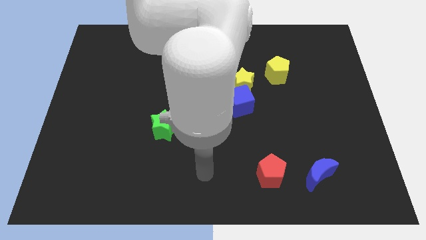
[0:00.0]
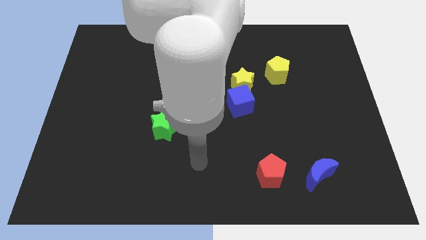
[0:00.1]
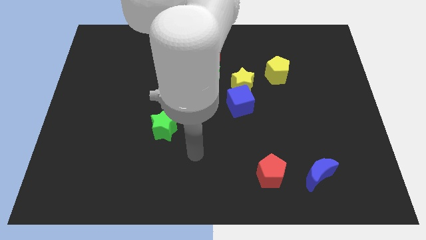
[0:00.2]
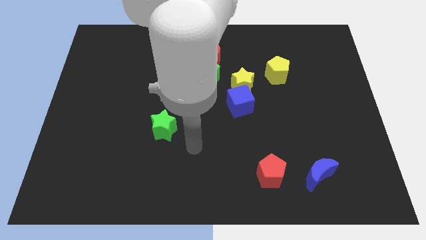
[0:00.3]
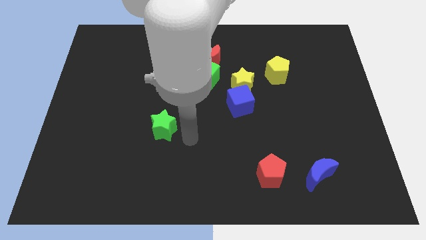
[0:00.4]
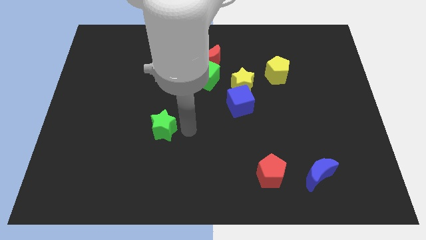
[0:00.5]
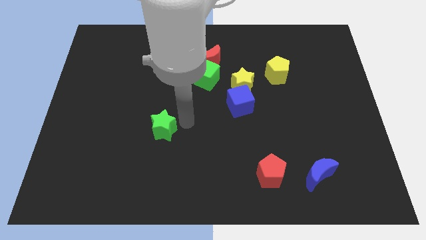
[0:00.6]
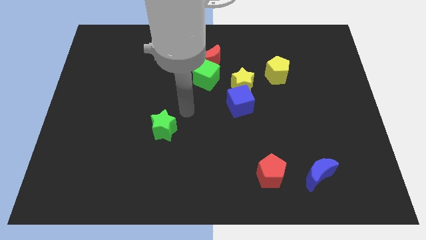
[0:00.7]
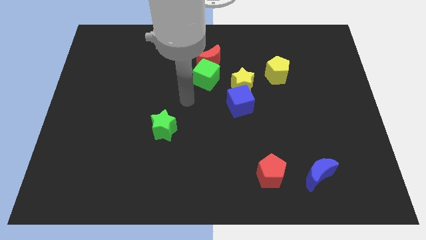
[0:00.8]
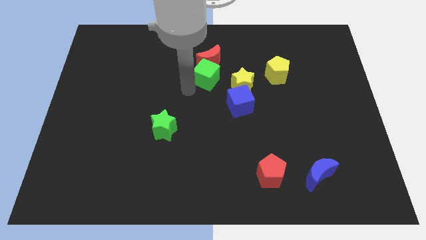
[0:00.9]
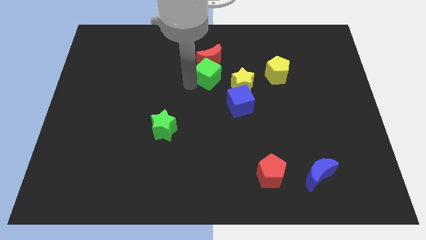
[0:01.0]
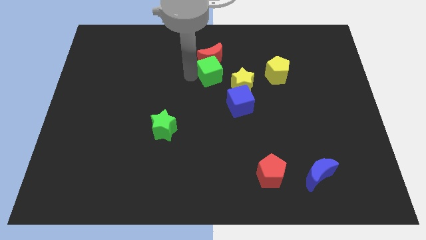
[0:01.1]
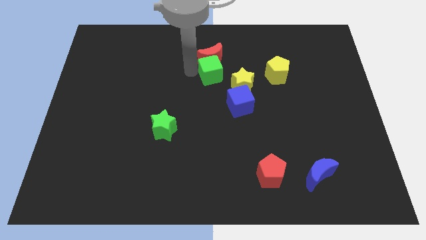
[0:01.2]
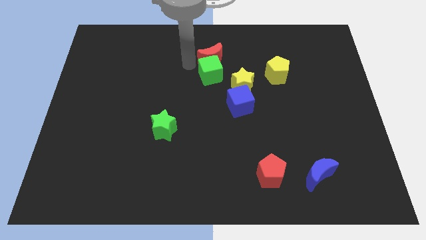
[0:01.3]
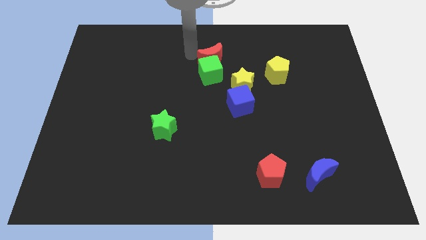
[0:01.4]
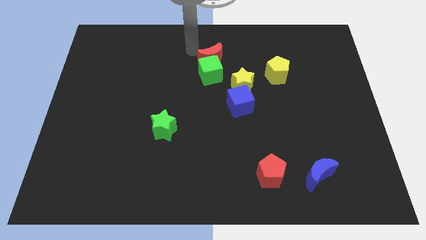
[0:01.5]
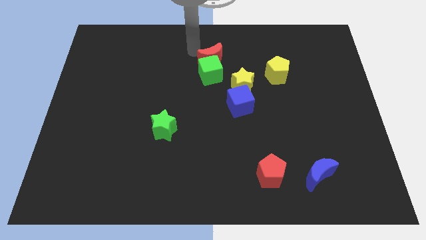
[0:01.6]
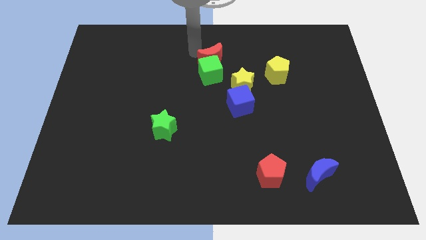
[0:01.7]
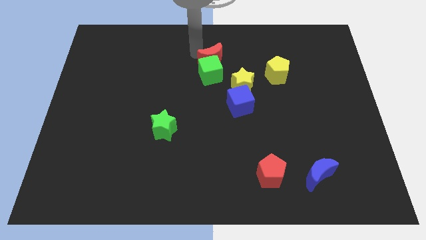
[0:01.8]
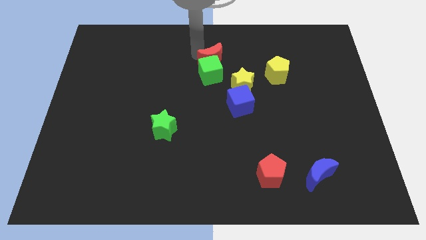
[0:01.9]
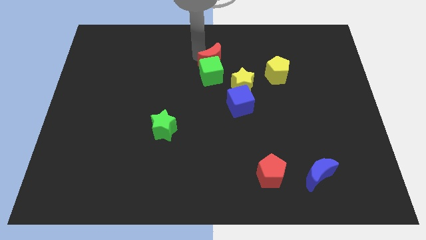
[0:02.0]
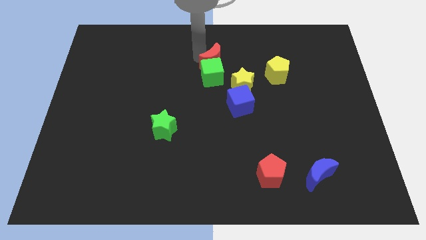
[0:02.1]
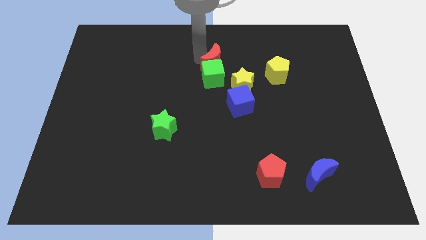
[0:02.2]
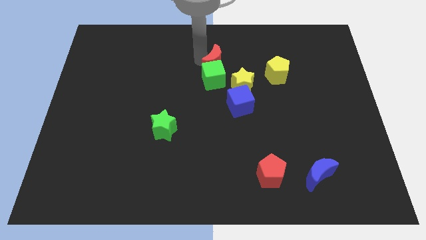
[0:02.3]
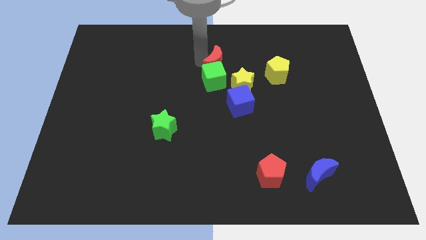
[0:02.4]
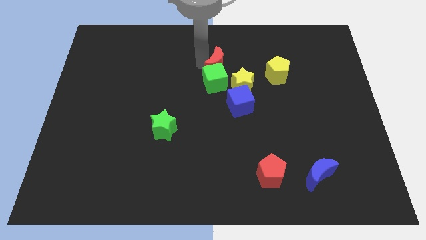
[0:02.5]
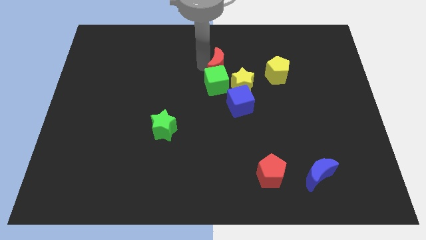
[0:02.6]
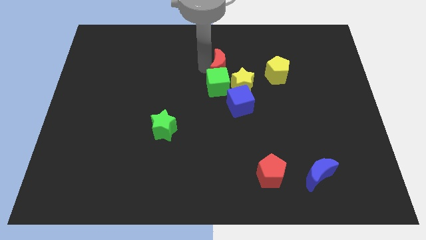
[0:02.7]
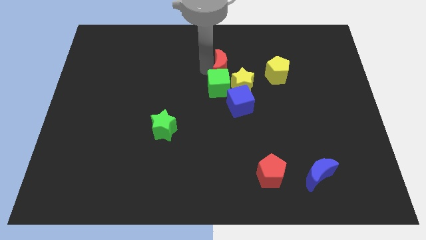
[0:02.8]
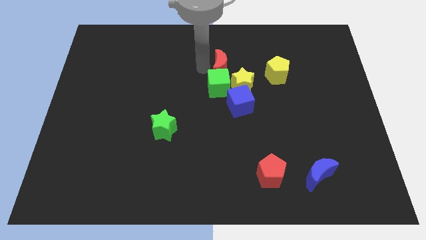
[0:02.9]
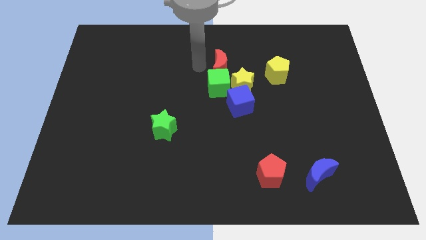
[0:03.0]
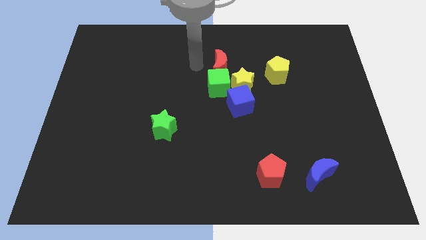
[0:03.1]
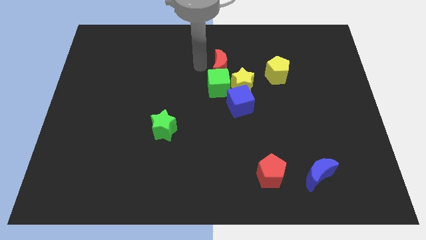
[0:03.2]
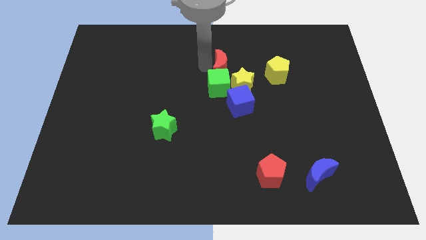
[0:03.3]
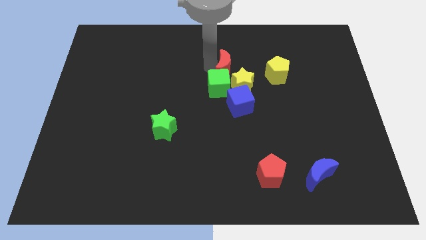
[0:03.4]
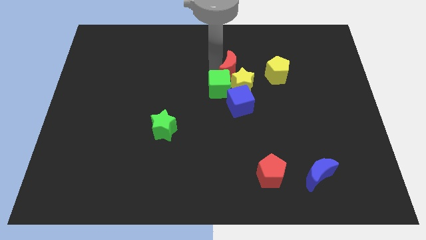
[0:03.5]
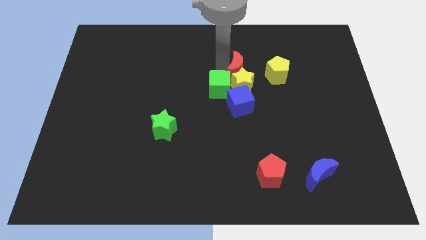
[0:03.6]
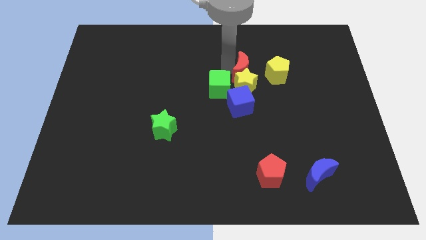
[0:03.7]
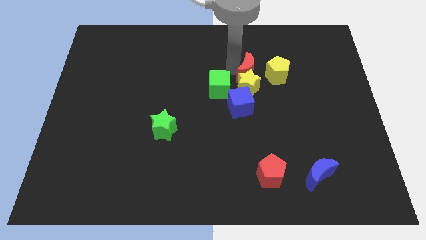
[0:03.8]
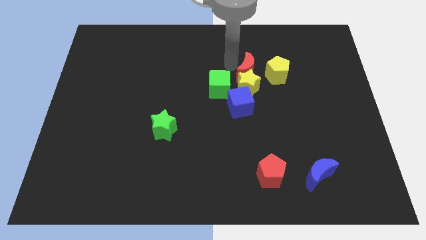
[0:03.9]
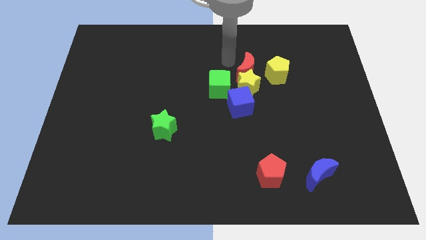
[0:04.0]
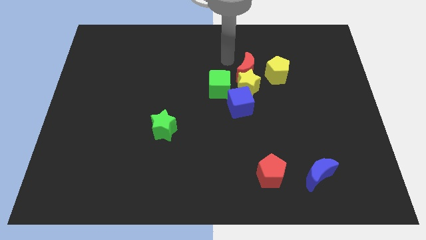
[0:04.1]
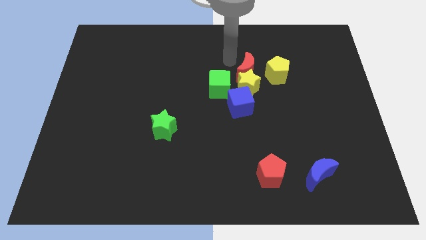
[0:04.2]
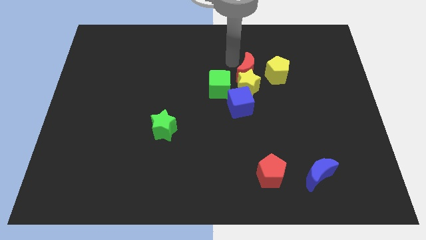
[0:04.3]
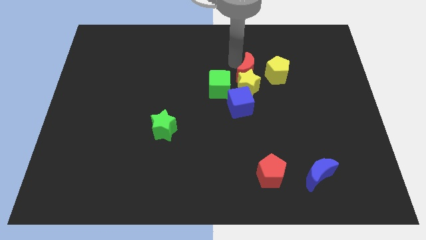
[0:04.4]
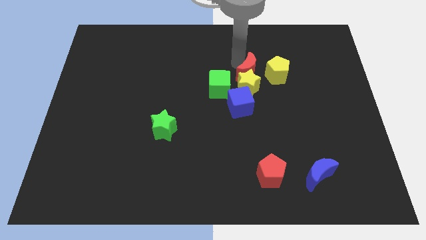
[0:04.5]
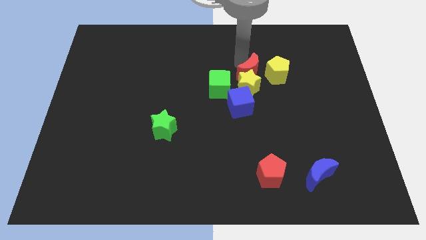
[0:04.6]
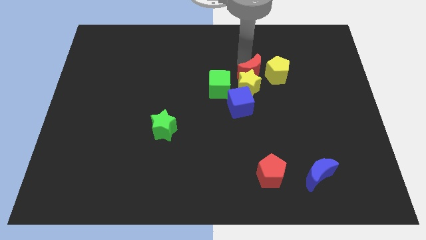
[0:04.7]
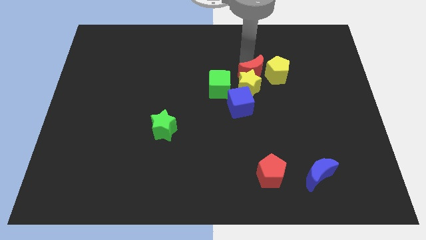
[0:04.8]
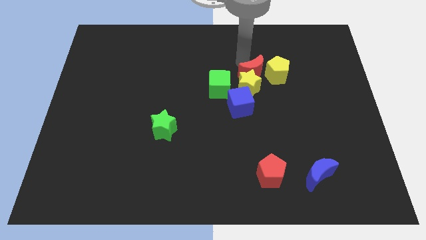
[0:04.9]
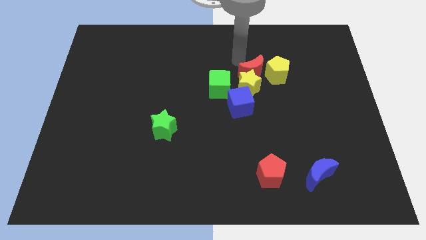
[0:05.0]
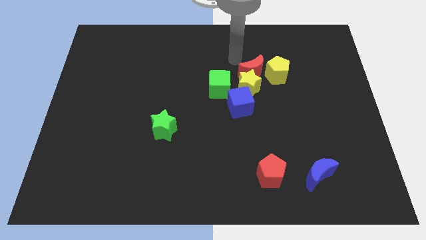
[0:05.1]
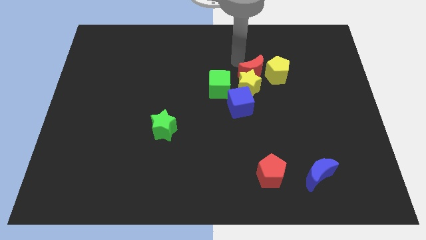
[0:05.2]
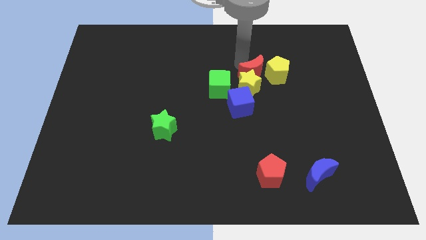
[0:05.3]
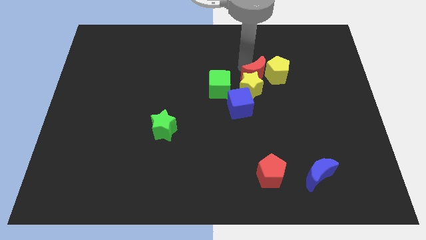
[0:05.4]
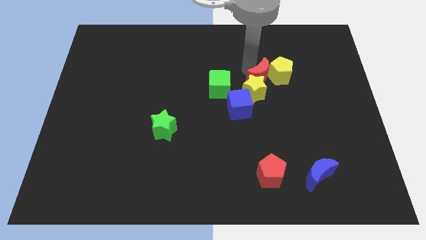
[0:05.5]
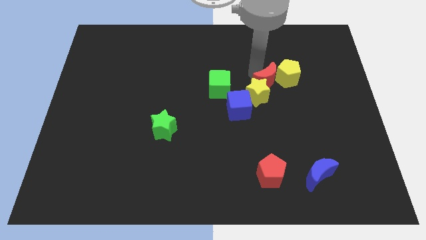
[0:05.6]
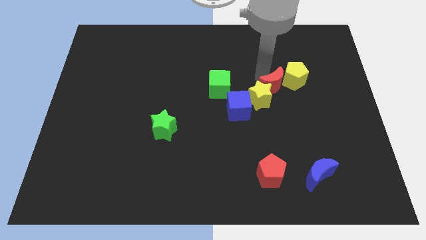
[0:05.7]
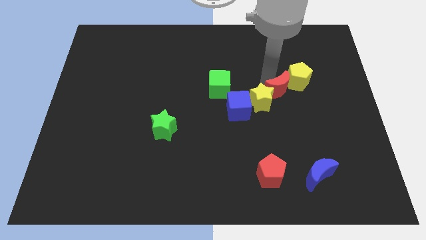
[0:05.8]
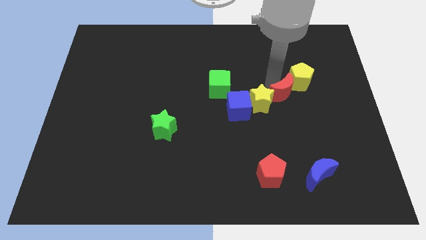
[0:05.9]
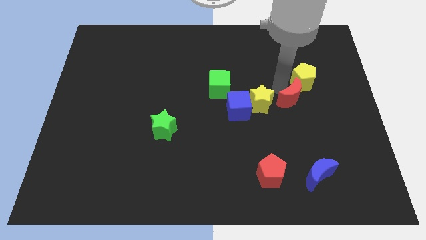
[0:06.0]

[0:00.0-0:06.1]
push the red moon downwards and then right

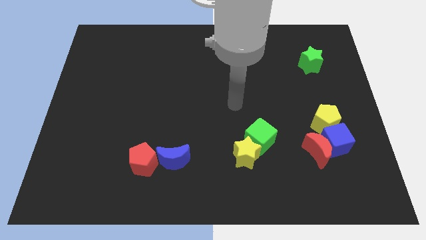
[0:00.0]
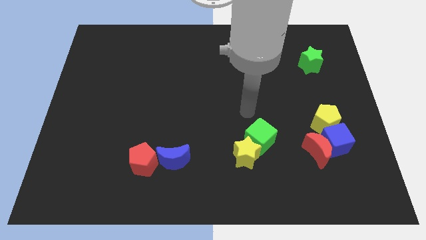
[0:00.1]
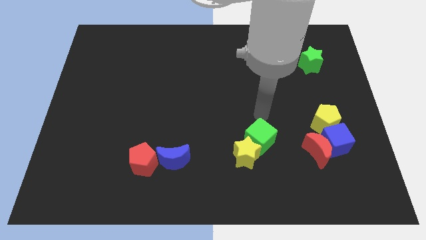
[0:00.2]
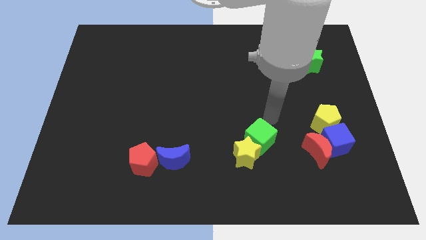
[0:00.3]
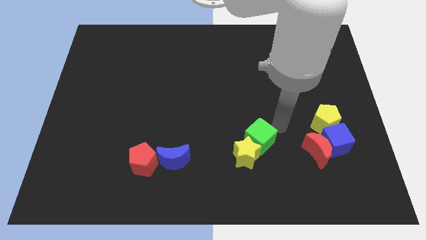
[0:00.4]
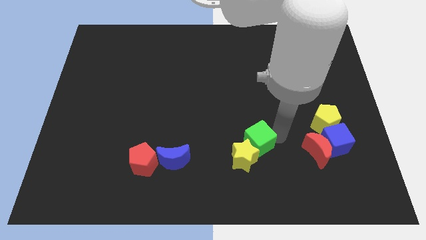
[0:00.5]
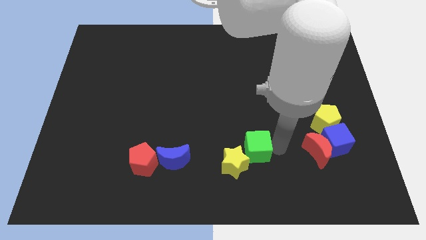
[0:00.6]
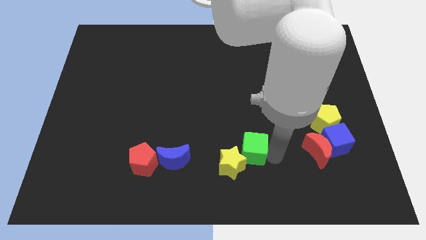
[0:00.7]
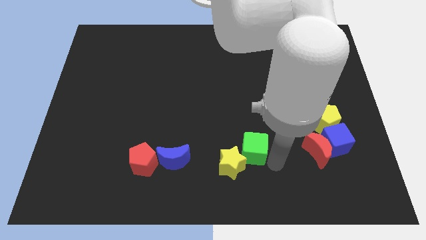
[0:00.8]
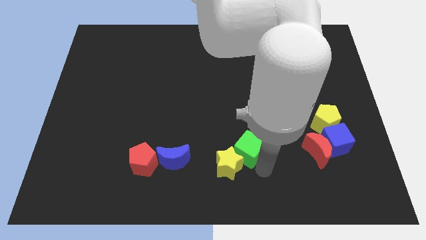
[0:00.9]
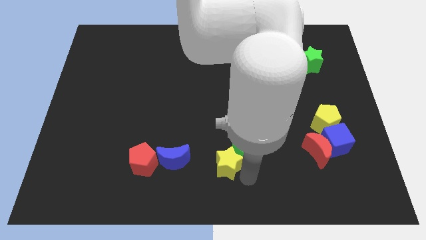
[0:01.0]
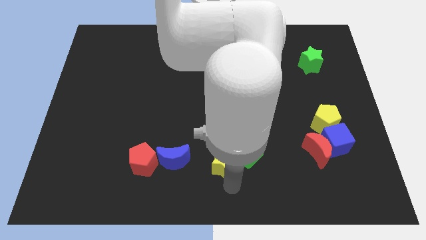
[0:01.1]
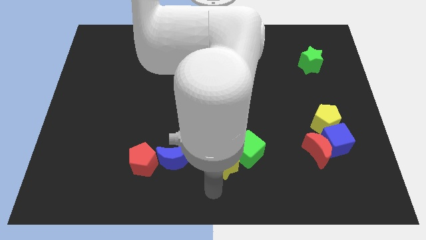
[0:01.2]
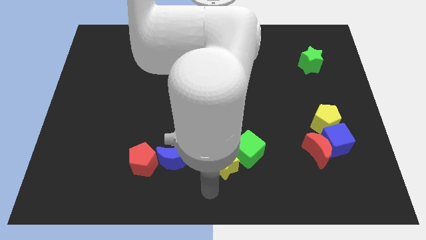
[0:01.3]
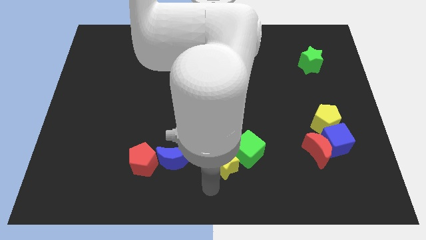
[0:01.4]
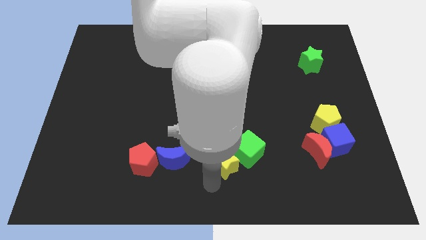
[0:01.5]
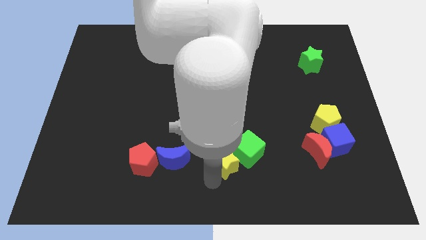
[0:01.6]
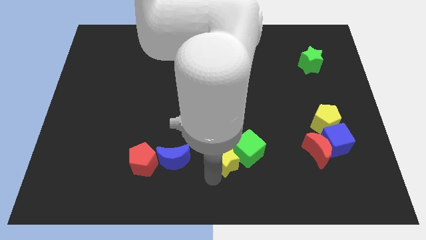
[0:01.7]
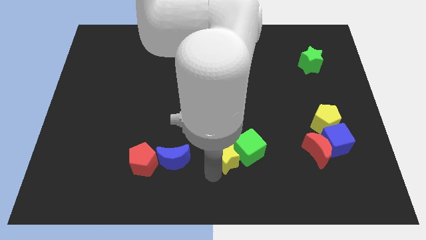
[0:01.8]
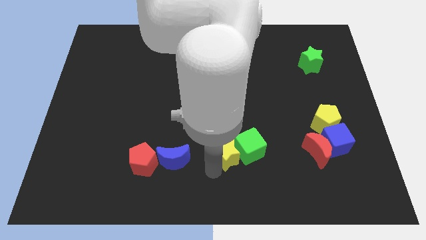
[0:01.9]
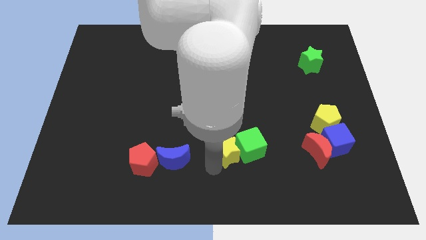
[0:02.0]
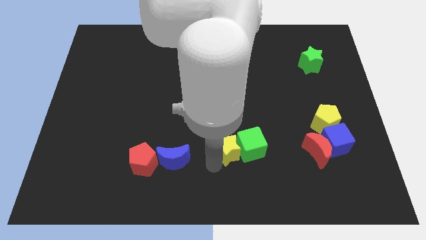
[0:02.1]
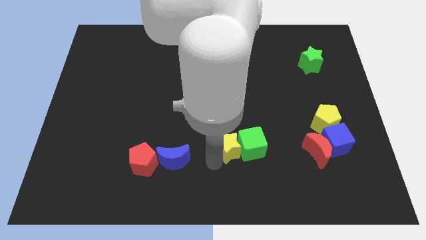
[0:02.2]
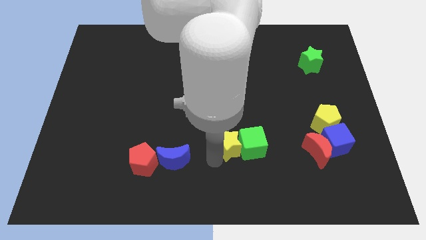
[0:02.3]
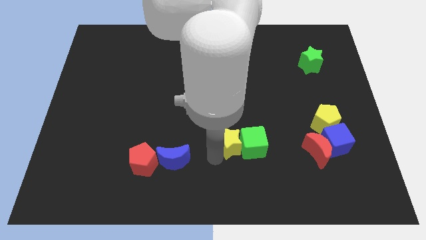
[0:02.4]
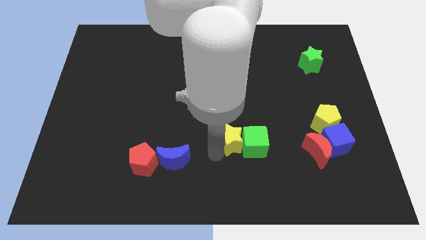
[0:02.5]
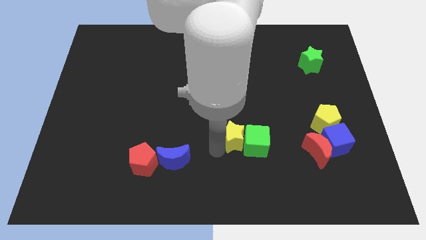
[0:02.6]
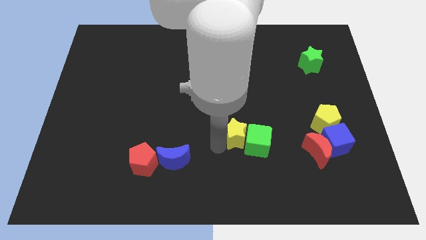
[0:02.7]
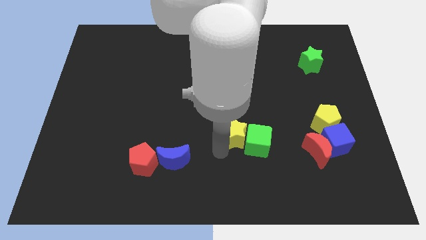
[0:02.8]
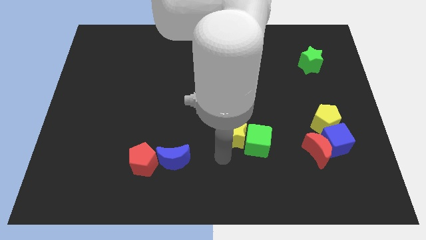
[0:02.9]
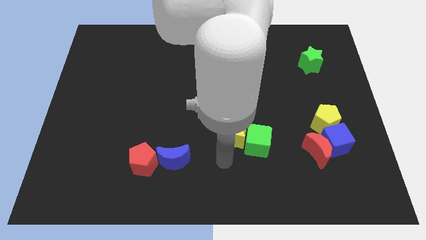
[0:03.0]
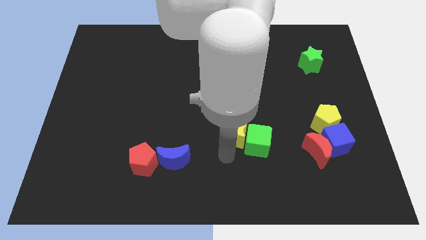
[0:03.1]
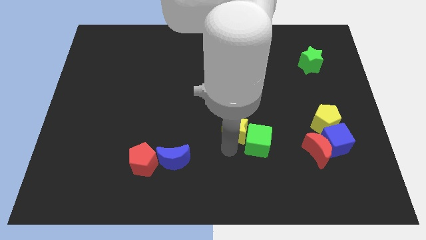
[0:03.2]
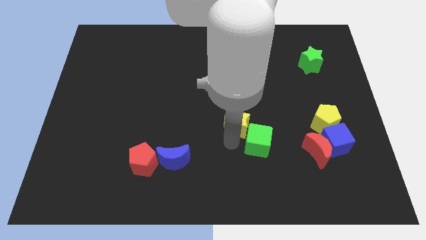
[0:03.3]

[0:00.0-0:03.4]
slightly push the yellow star up
